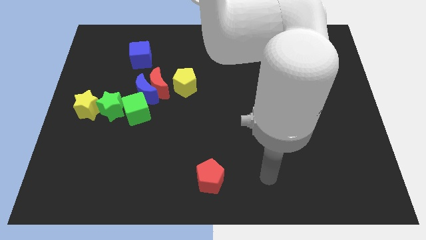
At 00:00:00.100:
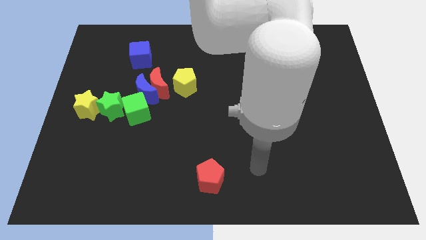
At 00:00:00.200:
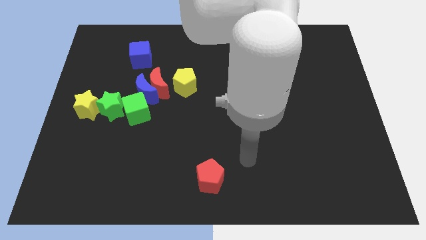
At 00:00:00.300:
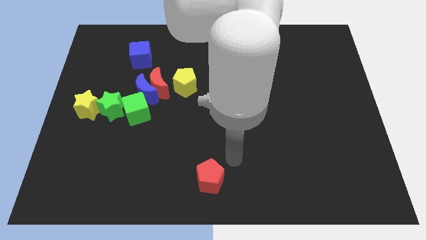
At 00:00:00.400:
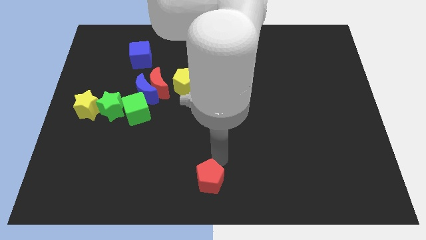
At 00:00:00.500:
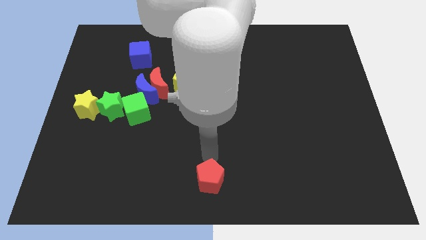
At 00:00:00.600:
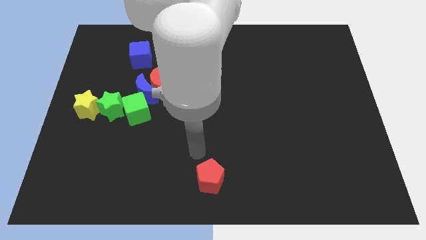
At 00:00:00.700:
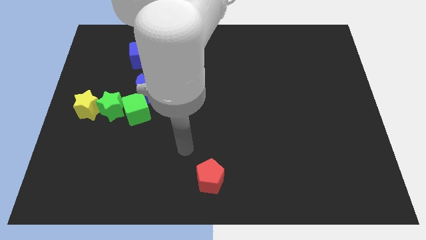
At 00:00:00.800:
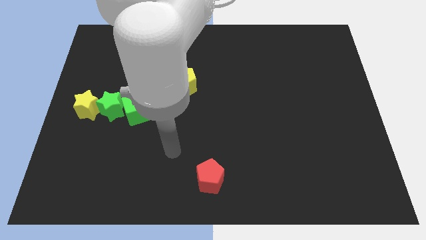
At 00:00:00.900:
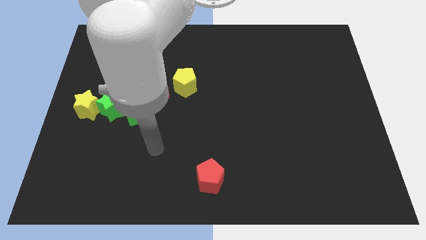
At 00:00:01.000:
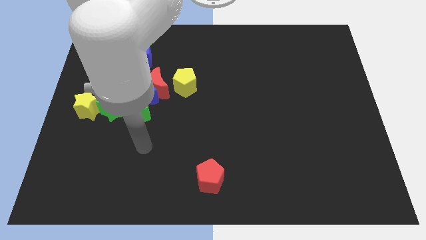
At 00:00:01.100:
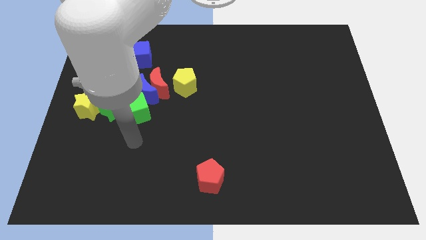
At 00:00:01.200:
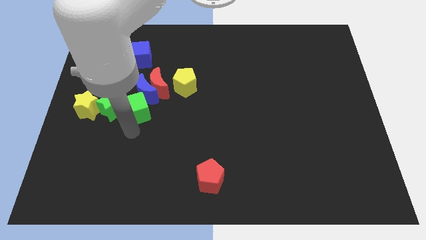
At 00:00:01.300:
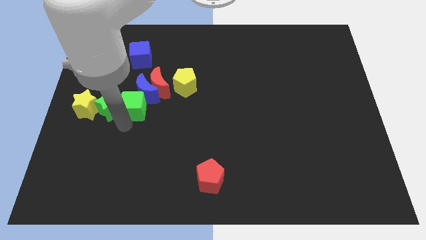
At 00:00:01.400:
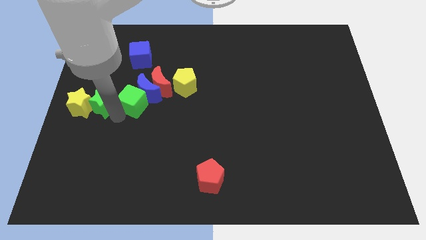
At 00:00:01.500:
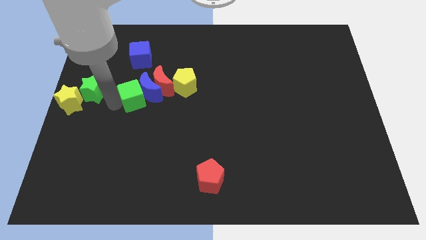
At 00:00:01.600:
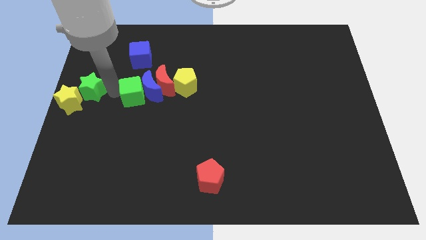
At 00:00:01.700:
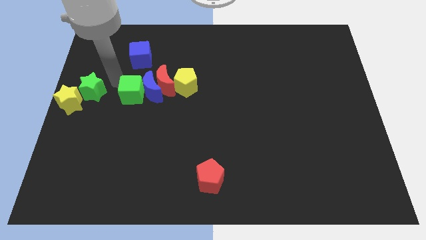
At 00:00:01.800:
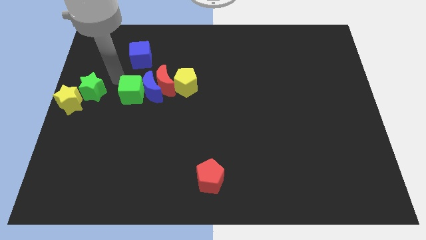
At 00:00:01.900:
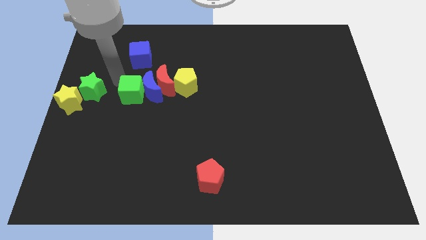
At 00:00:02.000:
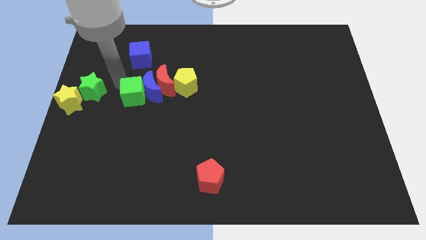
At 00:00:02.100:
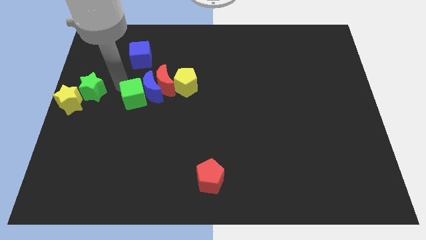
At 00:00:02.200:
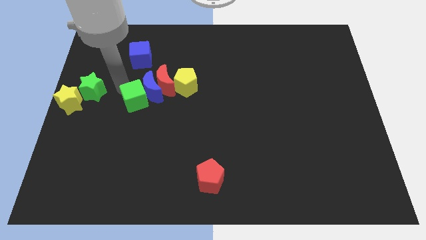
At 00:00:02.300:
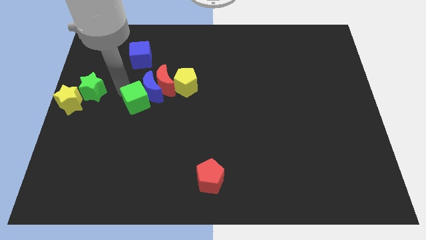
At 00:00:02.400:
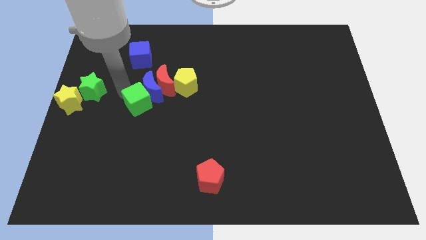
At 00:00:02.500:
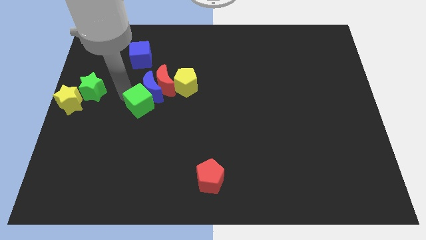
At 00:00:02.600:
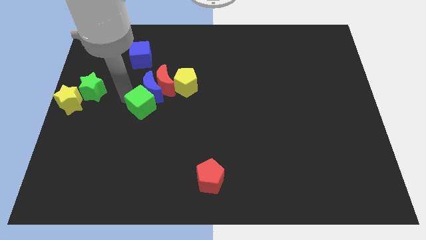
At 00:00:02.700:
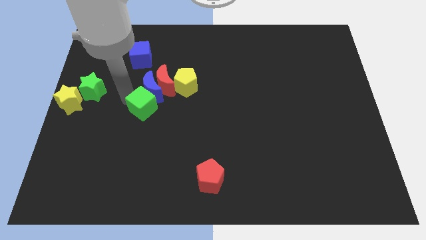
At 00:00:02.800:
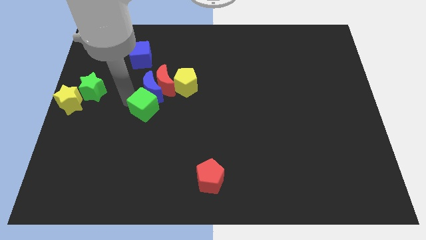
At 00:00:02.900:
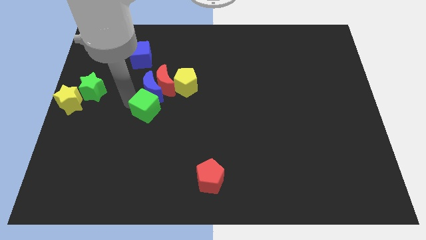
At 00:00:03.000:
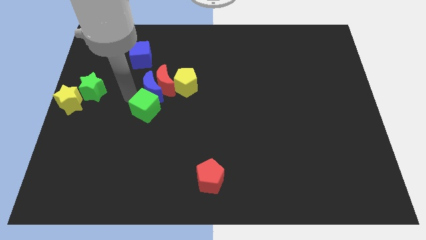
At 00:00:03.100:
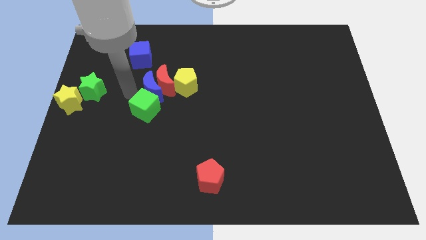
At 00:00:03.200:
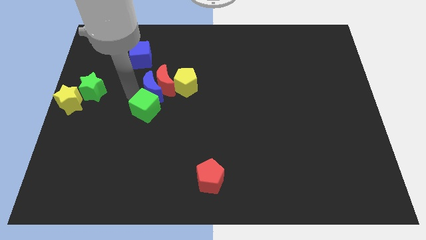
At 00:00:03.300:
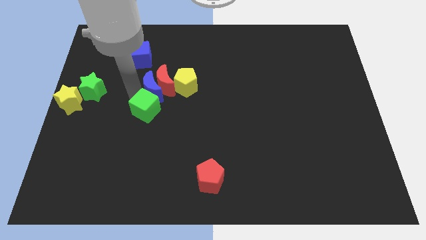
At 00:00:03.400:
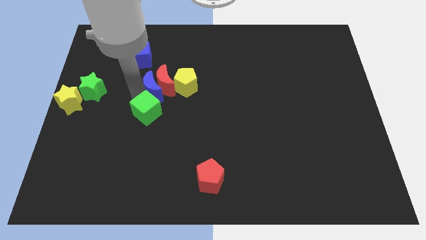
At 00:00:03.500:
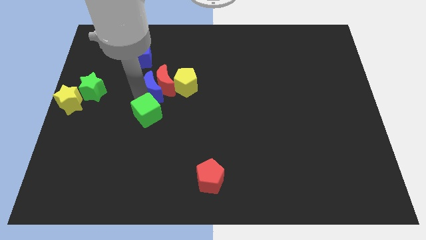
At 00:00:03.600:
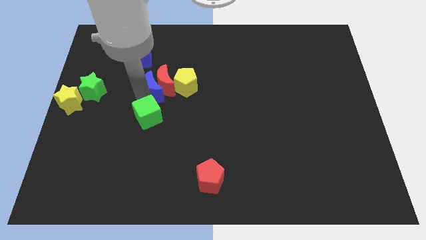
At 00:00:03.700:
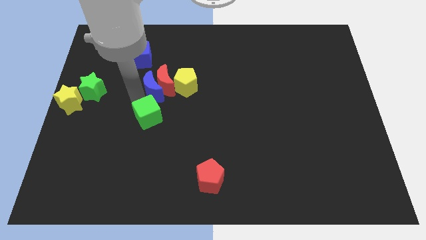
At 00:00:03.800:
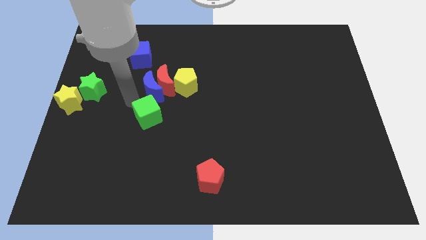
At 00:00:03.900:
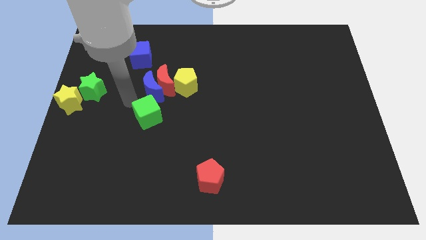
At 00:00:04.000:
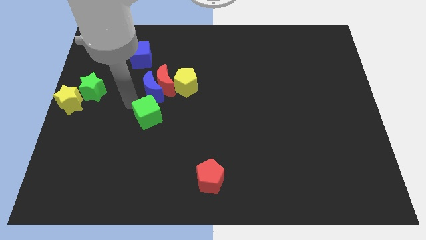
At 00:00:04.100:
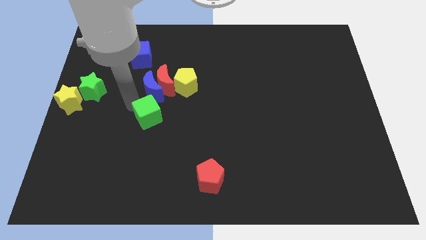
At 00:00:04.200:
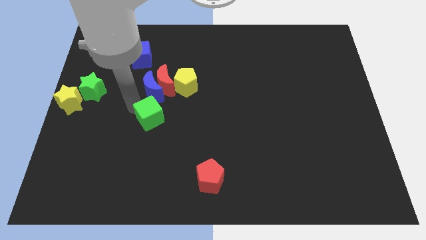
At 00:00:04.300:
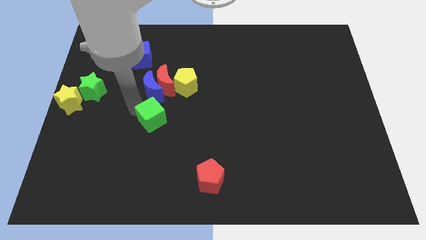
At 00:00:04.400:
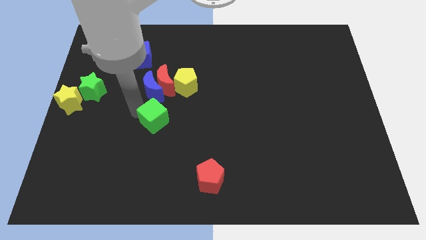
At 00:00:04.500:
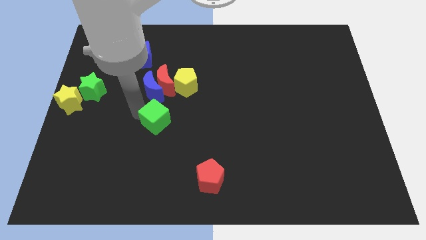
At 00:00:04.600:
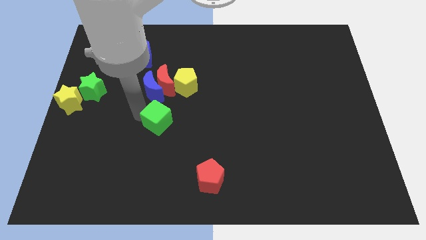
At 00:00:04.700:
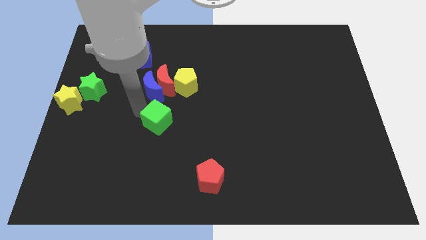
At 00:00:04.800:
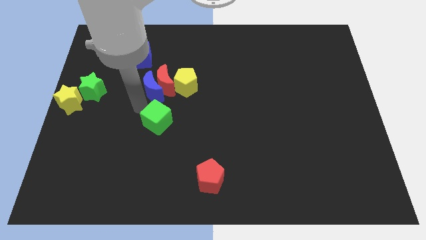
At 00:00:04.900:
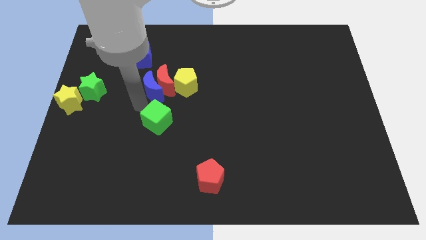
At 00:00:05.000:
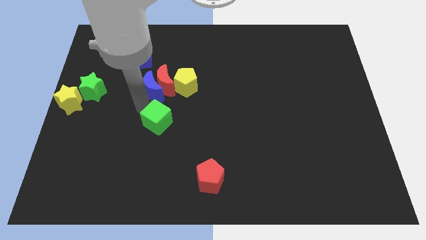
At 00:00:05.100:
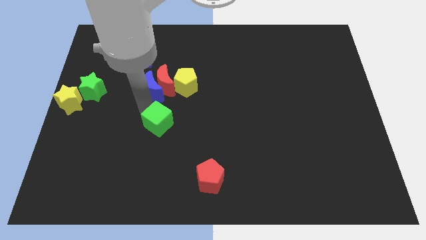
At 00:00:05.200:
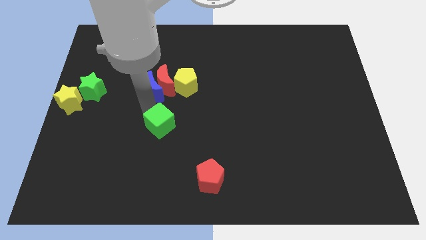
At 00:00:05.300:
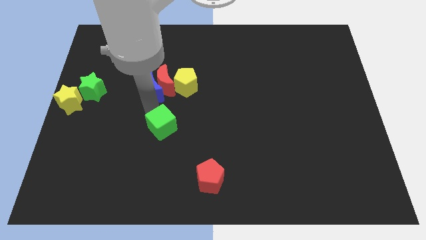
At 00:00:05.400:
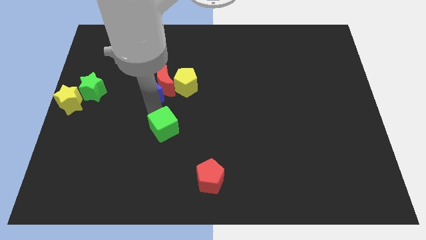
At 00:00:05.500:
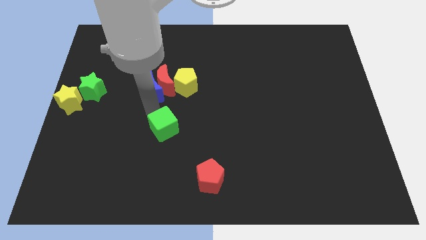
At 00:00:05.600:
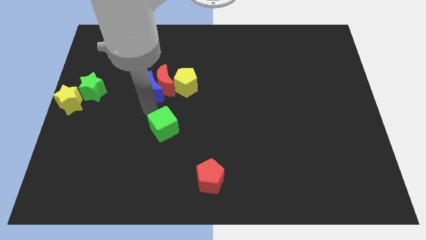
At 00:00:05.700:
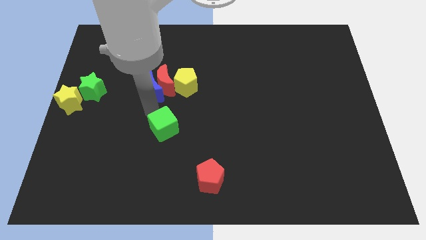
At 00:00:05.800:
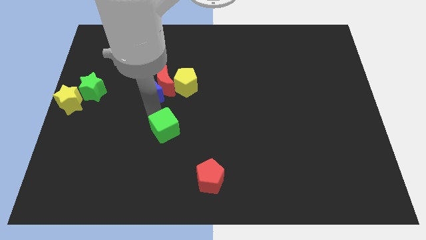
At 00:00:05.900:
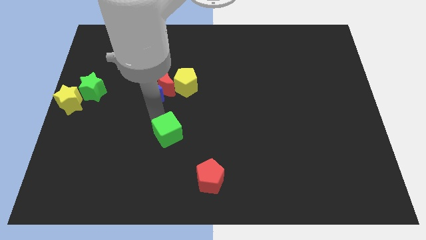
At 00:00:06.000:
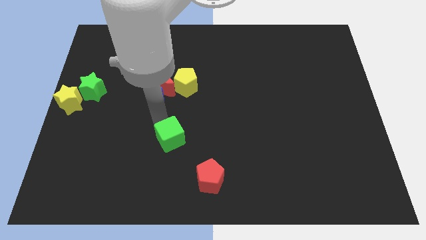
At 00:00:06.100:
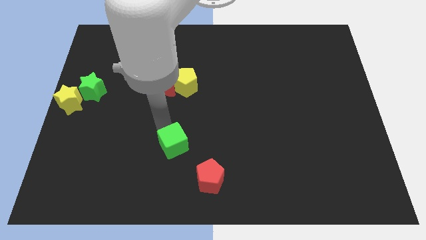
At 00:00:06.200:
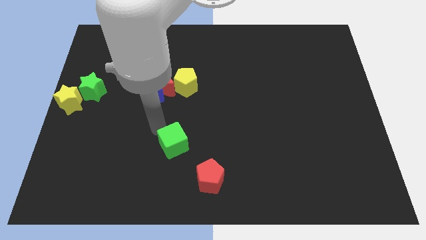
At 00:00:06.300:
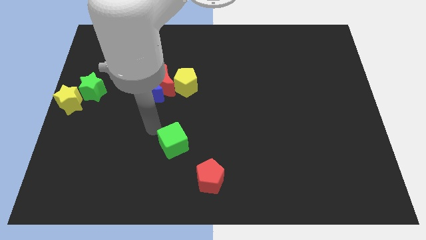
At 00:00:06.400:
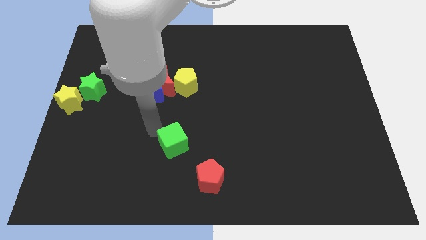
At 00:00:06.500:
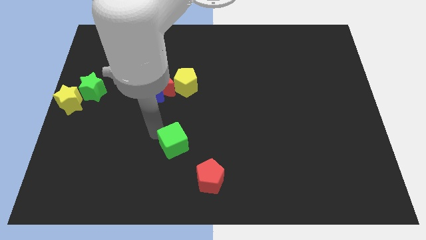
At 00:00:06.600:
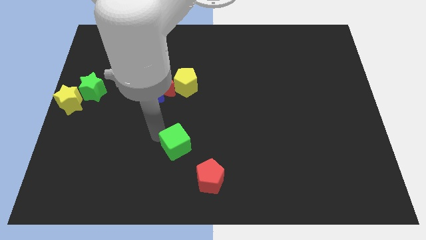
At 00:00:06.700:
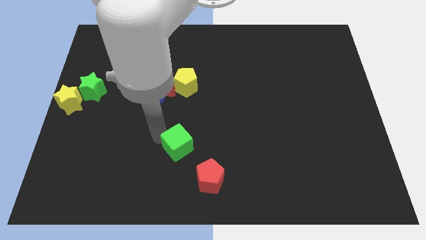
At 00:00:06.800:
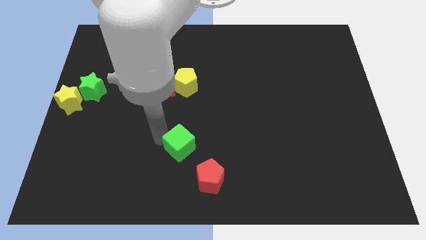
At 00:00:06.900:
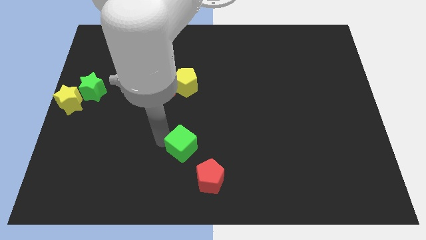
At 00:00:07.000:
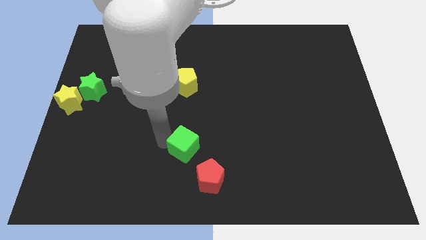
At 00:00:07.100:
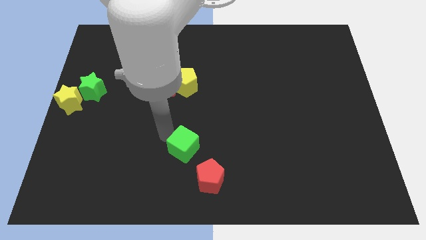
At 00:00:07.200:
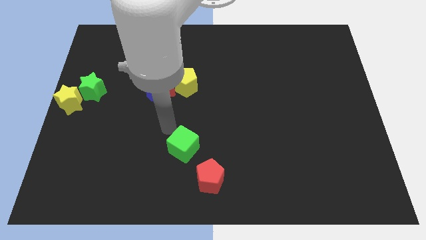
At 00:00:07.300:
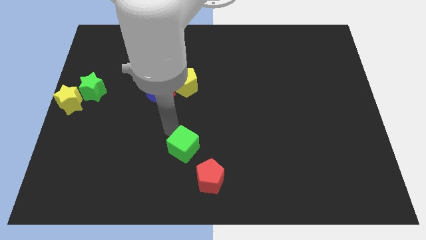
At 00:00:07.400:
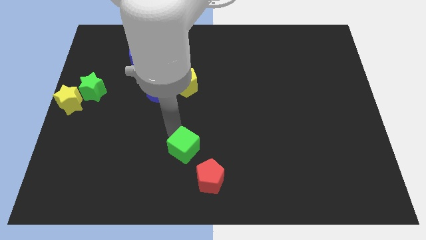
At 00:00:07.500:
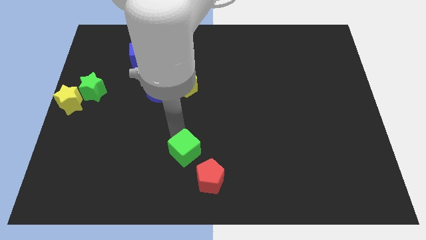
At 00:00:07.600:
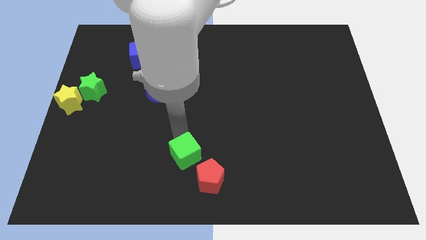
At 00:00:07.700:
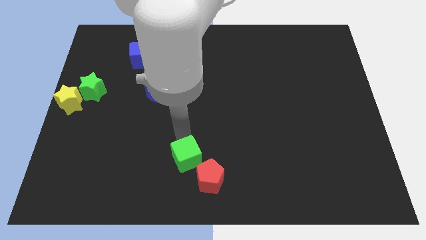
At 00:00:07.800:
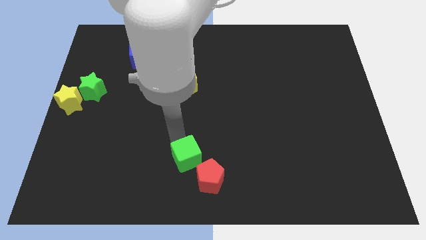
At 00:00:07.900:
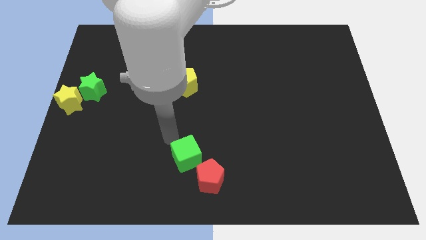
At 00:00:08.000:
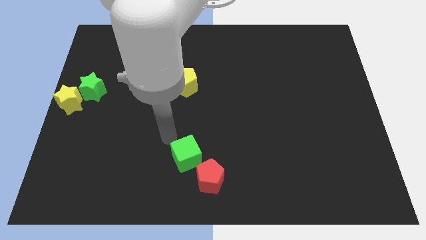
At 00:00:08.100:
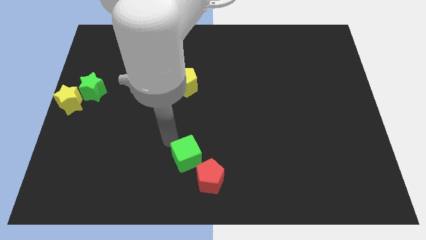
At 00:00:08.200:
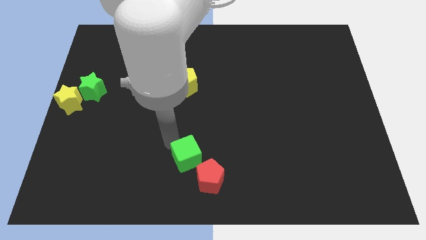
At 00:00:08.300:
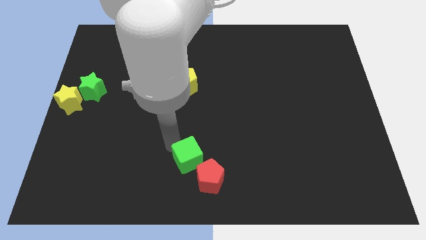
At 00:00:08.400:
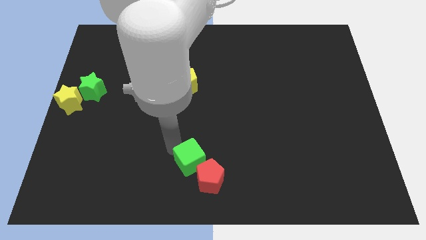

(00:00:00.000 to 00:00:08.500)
put the green cube close to the red pentagon
